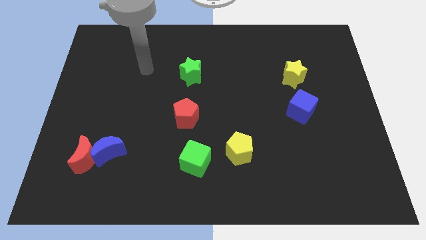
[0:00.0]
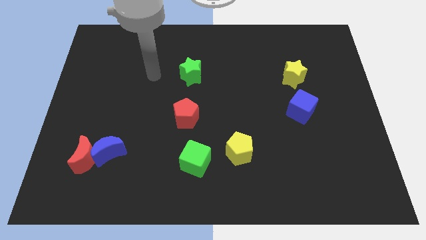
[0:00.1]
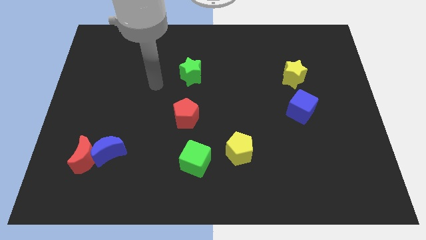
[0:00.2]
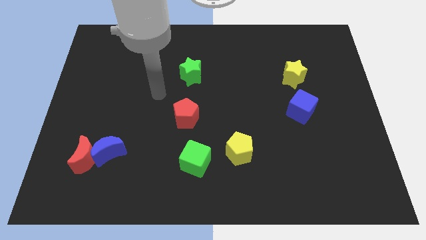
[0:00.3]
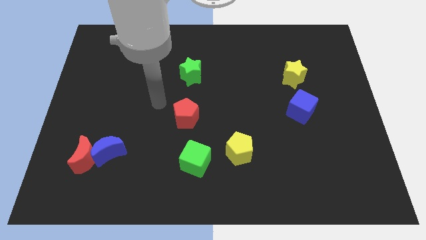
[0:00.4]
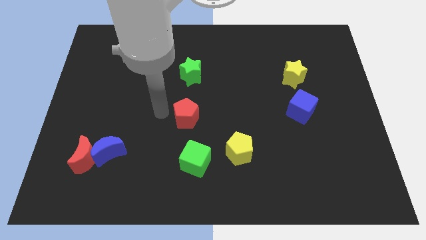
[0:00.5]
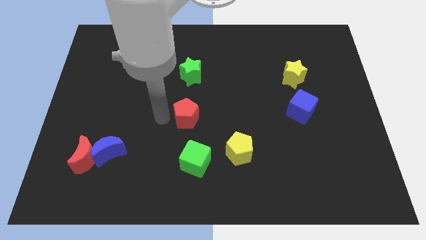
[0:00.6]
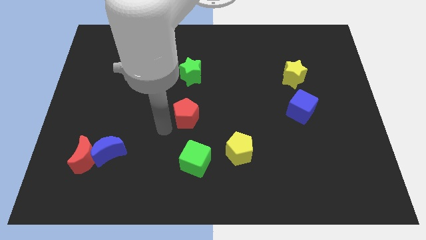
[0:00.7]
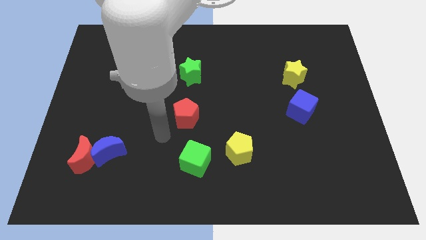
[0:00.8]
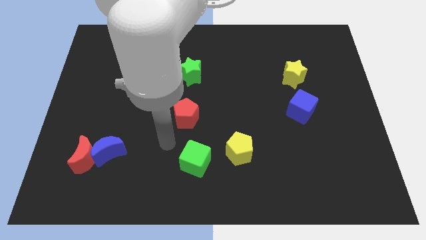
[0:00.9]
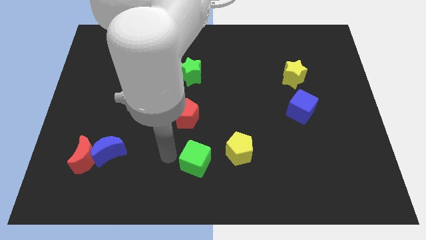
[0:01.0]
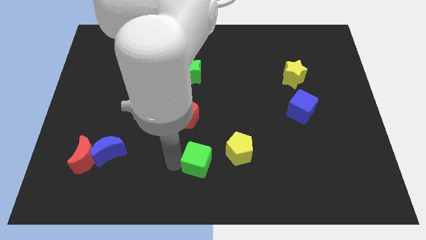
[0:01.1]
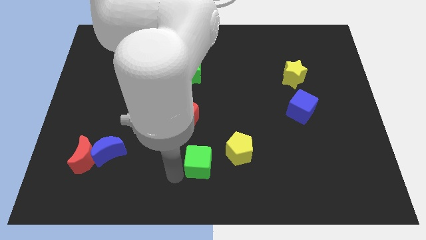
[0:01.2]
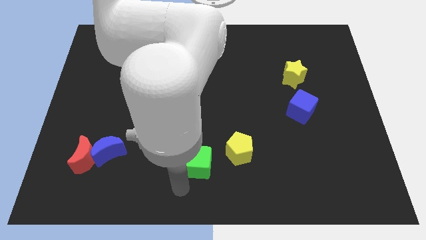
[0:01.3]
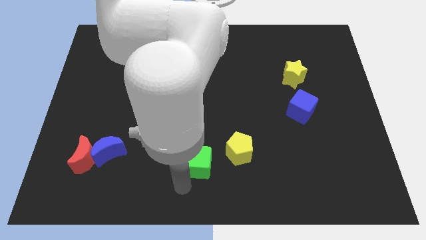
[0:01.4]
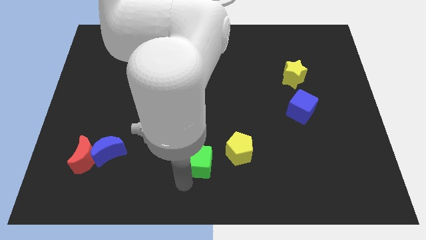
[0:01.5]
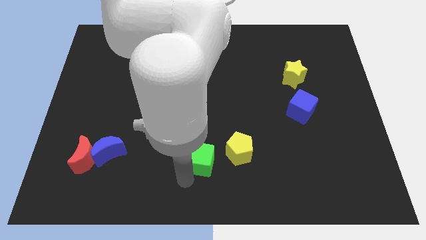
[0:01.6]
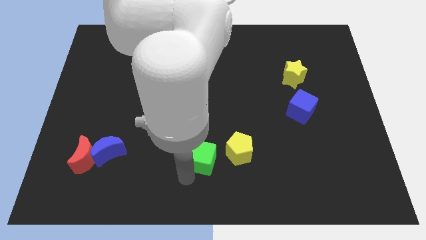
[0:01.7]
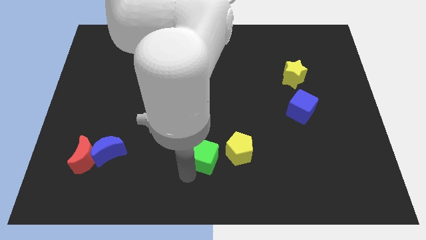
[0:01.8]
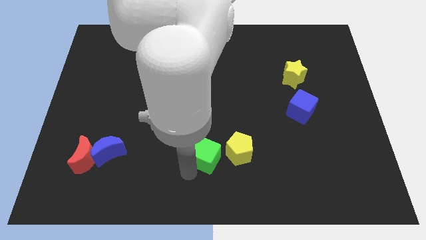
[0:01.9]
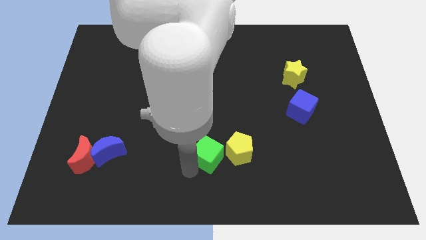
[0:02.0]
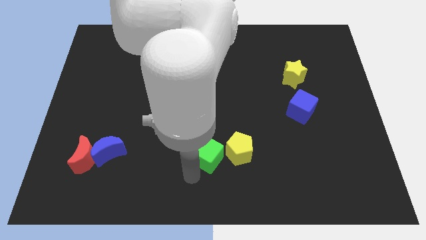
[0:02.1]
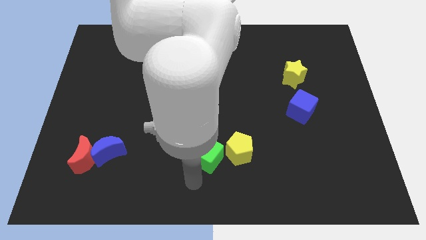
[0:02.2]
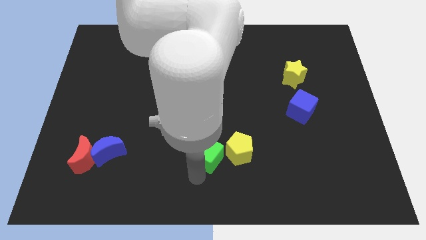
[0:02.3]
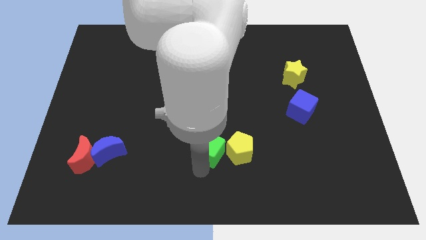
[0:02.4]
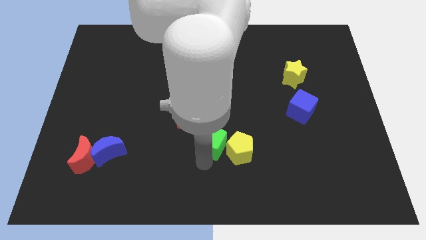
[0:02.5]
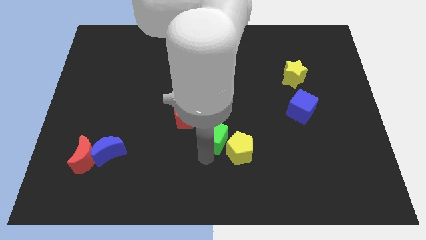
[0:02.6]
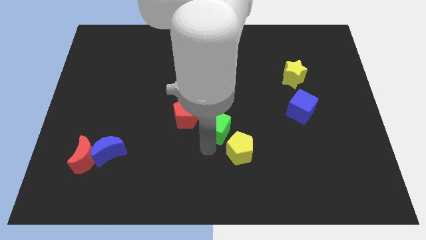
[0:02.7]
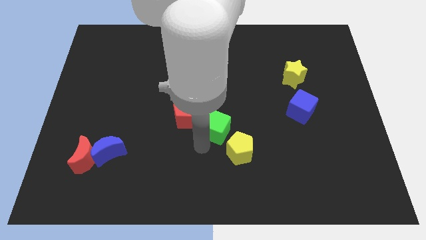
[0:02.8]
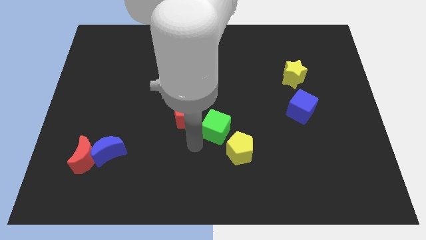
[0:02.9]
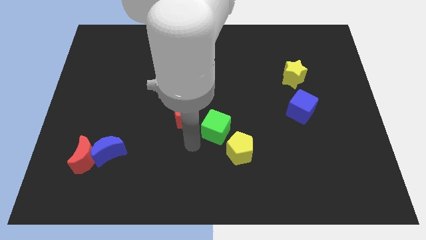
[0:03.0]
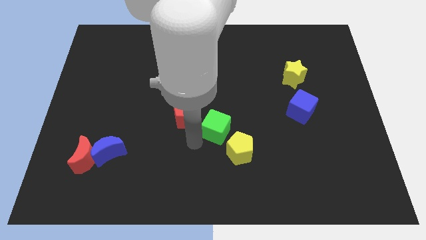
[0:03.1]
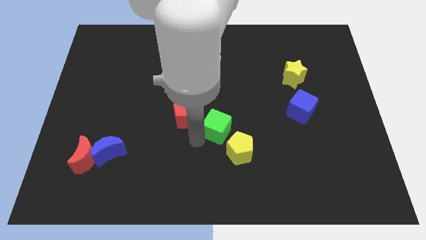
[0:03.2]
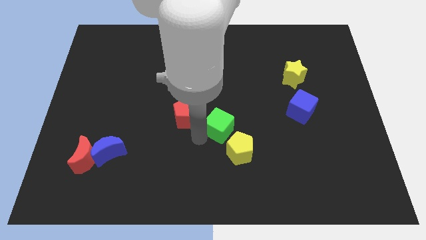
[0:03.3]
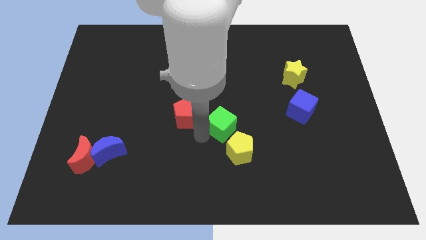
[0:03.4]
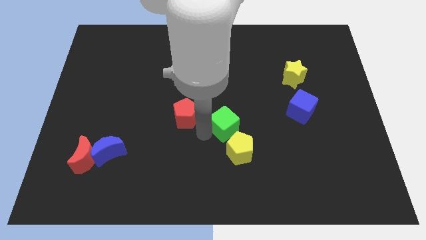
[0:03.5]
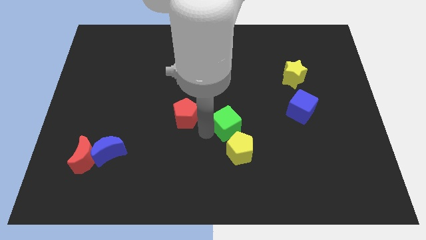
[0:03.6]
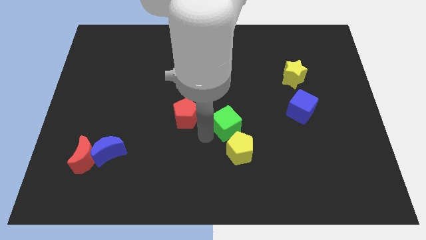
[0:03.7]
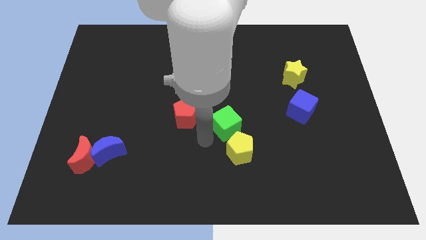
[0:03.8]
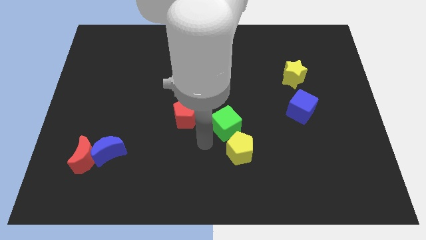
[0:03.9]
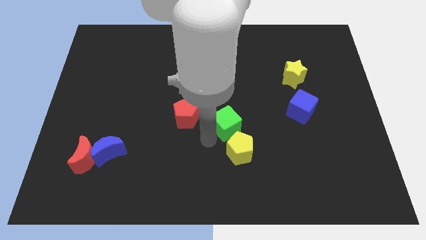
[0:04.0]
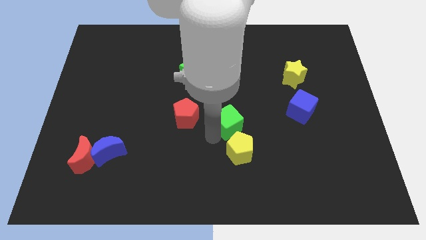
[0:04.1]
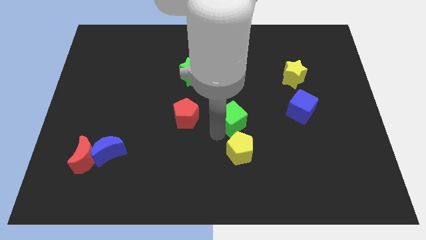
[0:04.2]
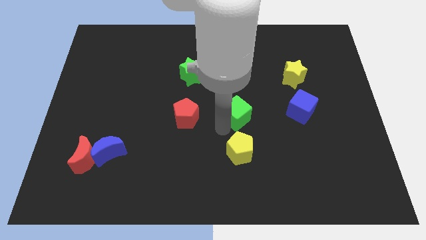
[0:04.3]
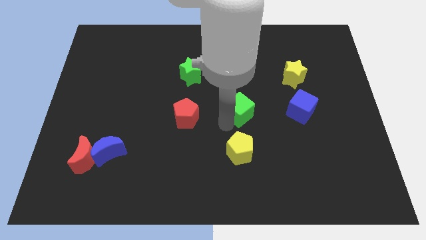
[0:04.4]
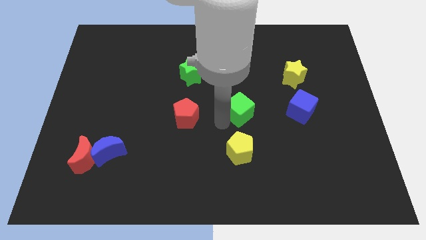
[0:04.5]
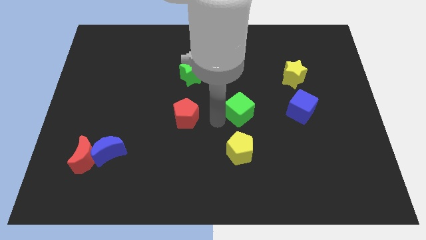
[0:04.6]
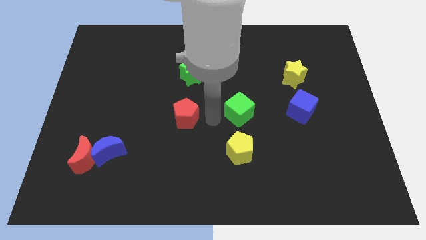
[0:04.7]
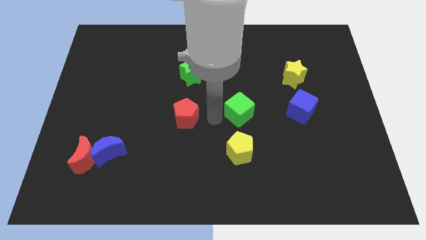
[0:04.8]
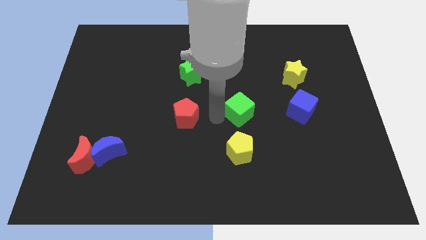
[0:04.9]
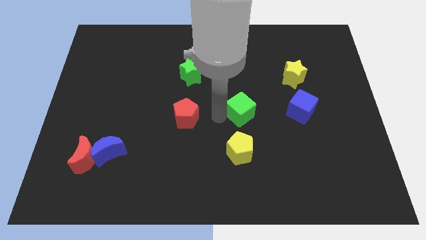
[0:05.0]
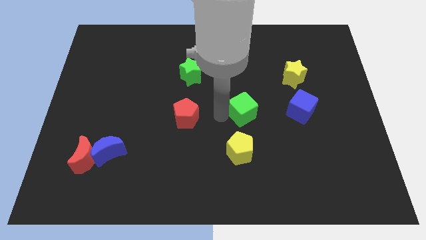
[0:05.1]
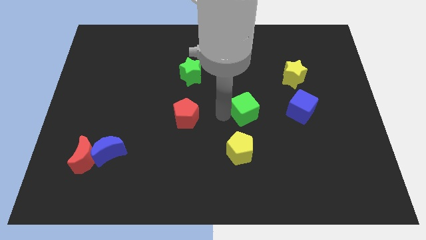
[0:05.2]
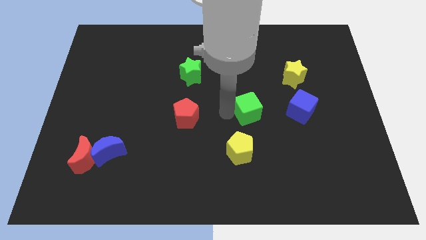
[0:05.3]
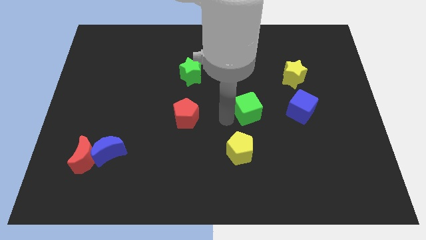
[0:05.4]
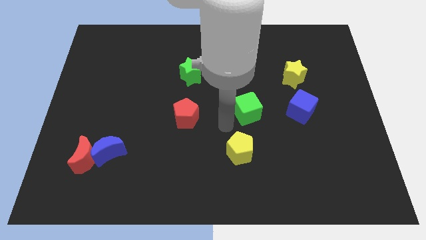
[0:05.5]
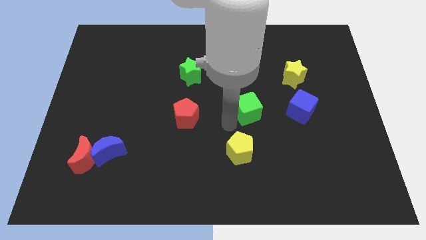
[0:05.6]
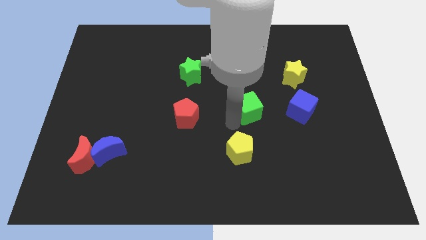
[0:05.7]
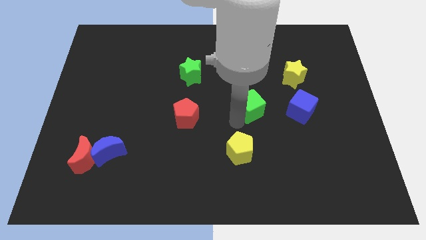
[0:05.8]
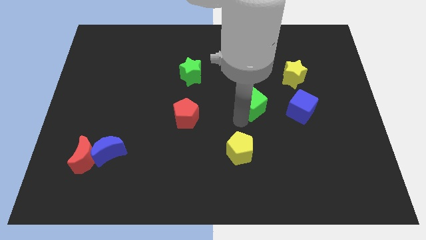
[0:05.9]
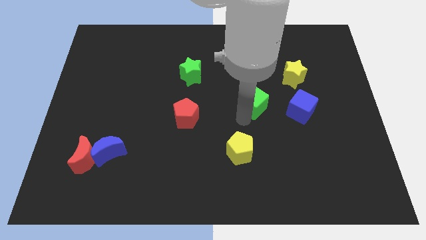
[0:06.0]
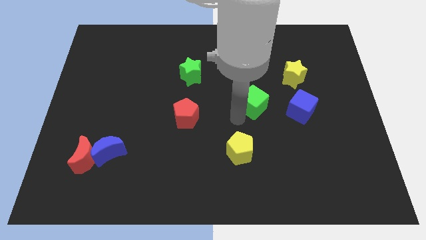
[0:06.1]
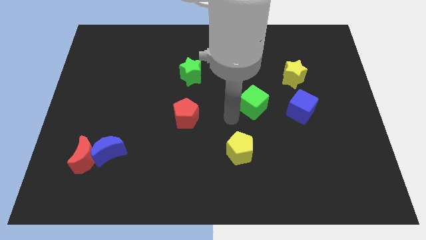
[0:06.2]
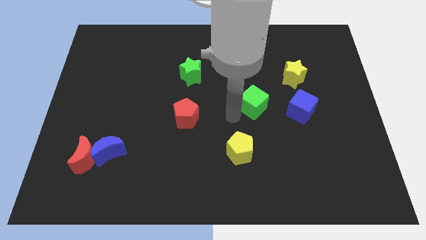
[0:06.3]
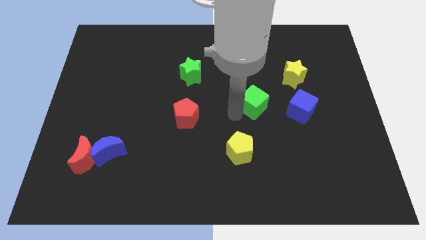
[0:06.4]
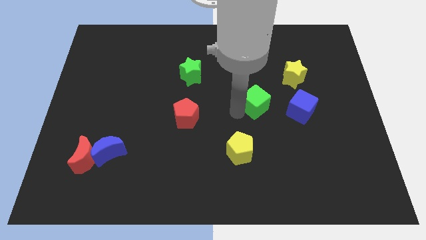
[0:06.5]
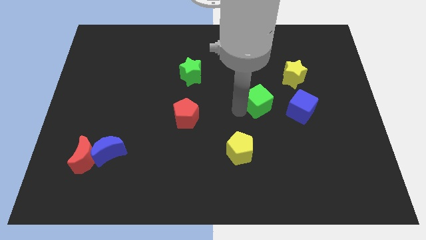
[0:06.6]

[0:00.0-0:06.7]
push the green cube to the bottom left side of the yellow star

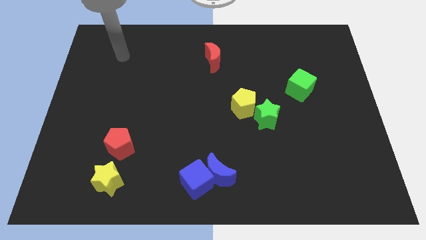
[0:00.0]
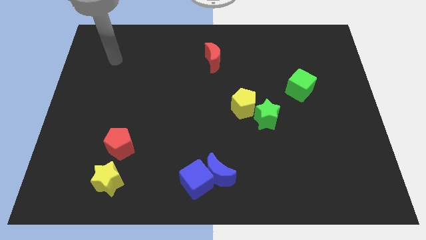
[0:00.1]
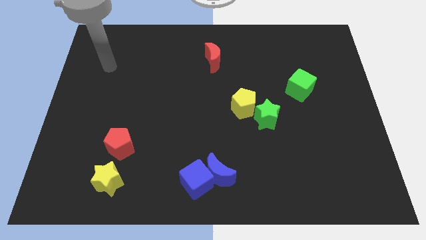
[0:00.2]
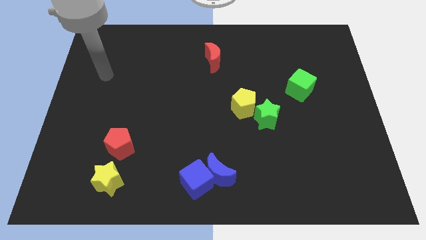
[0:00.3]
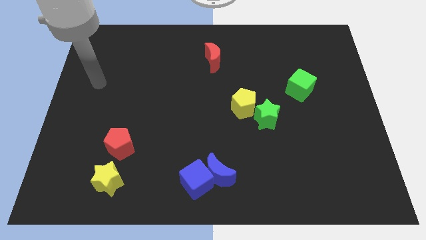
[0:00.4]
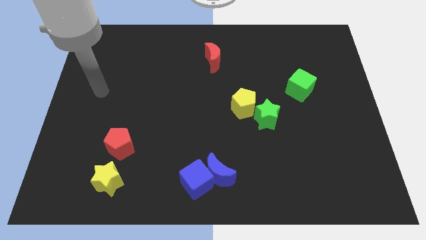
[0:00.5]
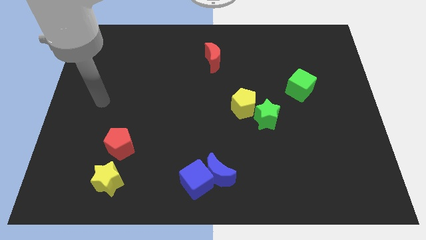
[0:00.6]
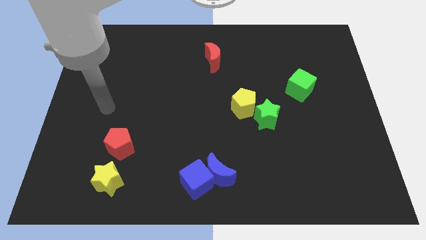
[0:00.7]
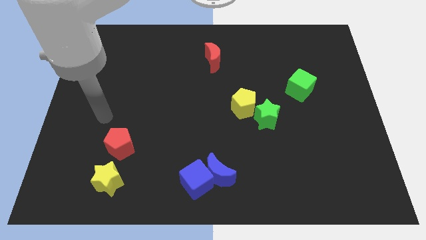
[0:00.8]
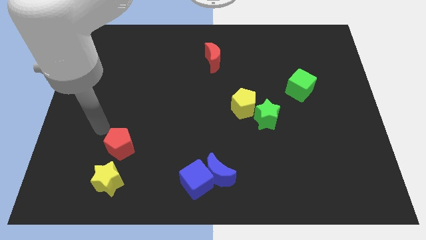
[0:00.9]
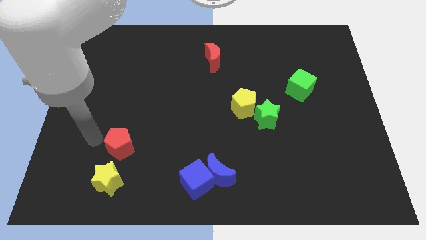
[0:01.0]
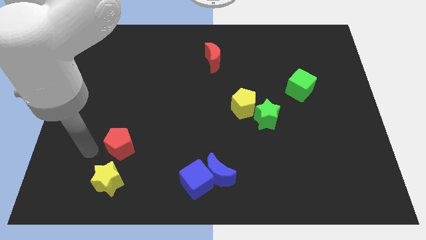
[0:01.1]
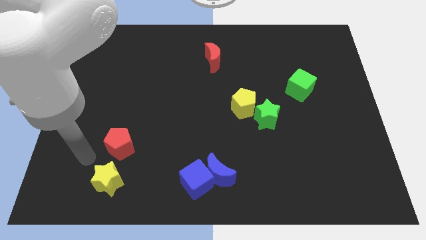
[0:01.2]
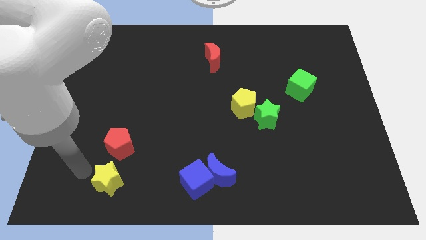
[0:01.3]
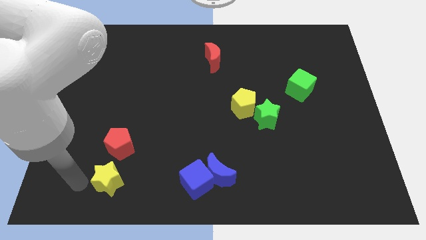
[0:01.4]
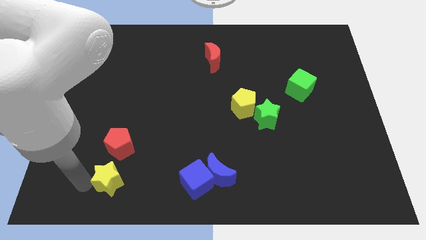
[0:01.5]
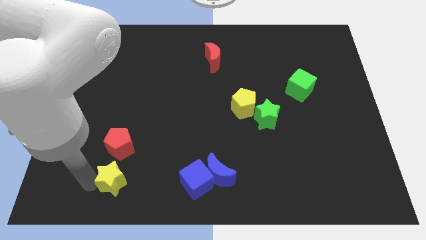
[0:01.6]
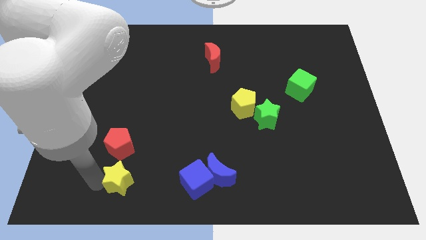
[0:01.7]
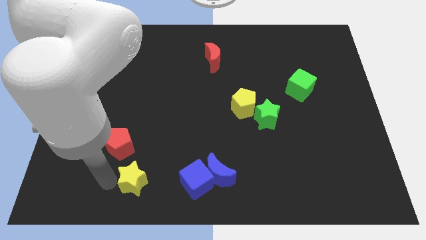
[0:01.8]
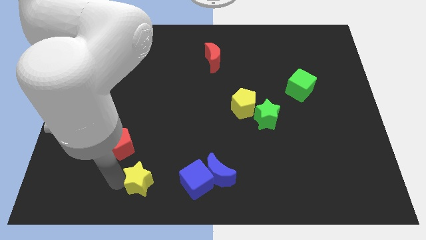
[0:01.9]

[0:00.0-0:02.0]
push the yellow star just left of the blue moon
